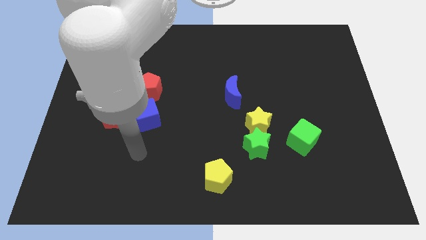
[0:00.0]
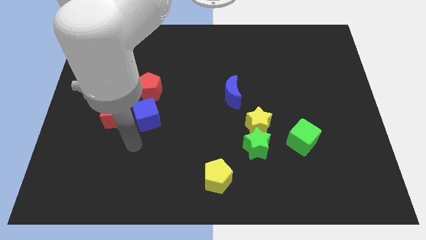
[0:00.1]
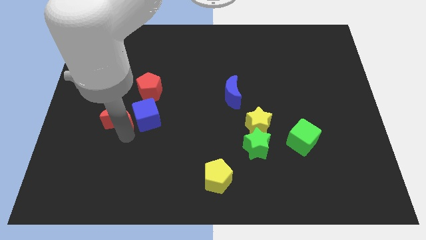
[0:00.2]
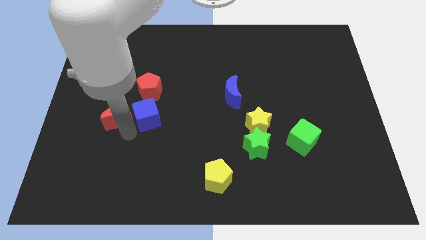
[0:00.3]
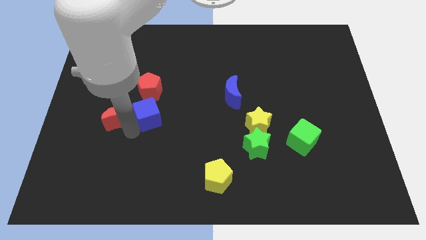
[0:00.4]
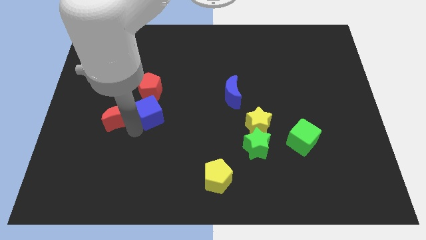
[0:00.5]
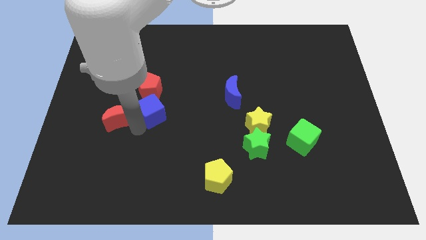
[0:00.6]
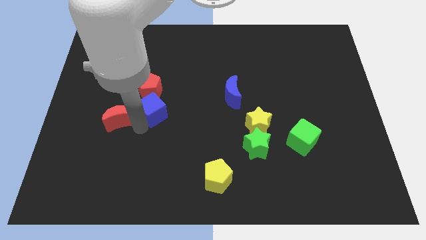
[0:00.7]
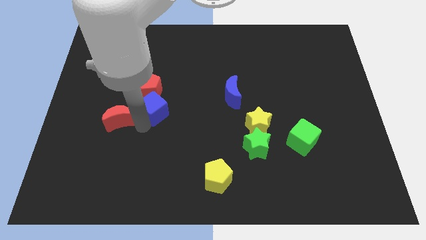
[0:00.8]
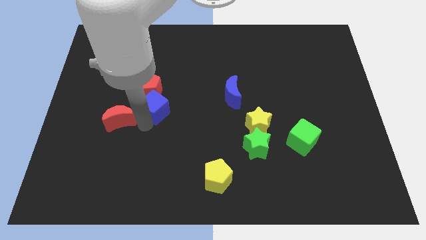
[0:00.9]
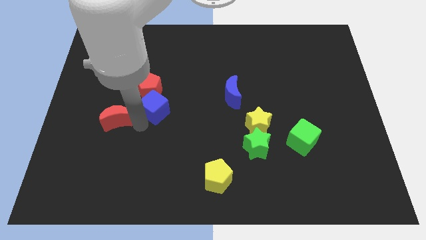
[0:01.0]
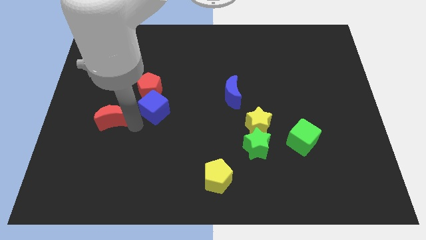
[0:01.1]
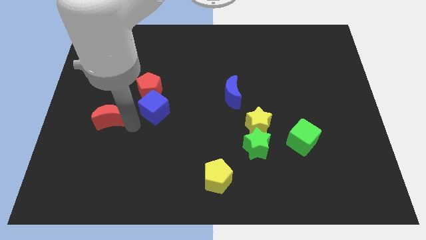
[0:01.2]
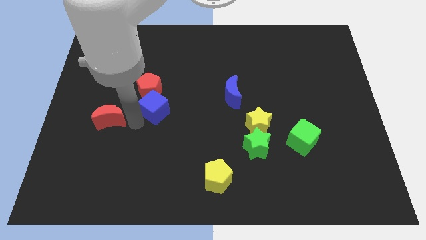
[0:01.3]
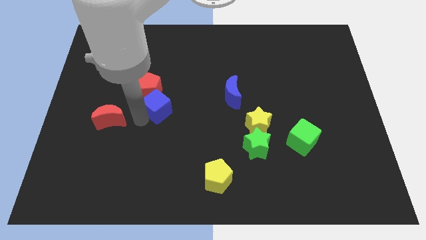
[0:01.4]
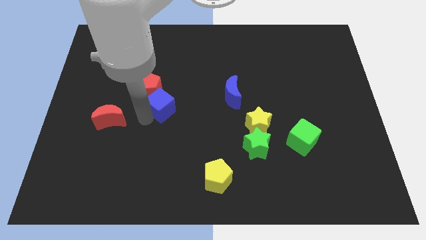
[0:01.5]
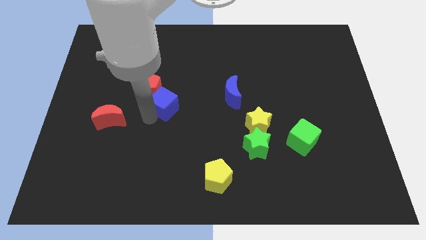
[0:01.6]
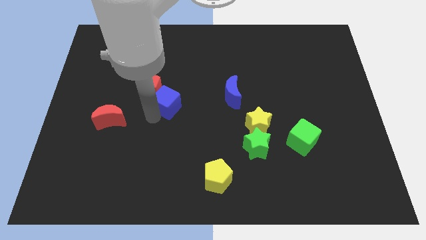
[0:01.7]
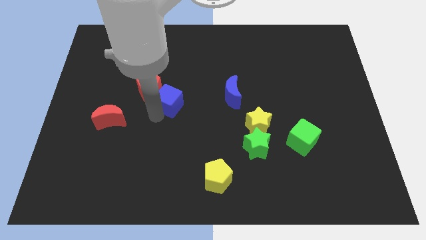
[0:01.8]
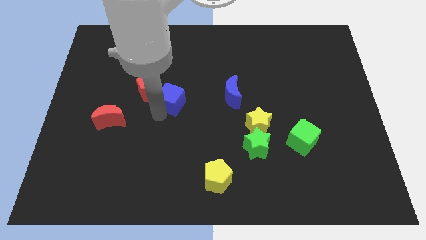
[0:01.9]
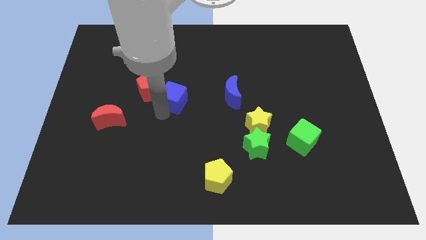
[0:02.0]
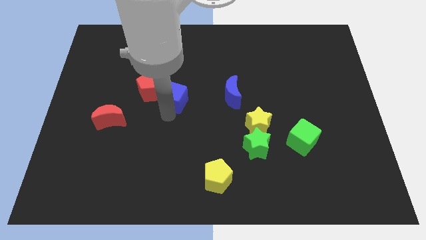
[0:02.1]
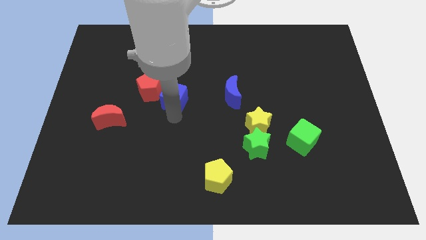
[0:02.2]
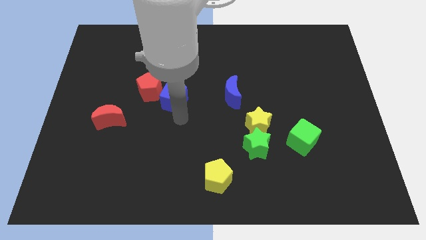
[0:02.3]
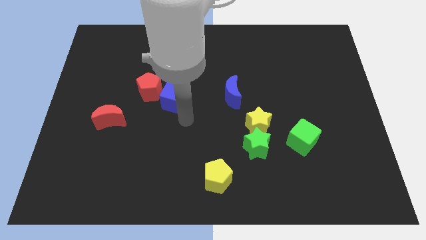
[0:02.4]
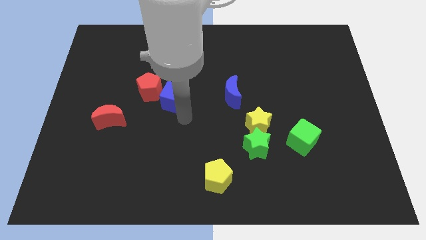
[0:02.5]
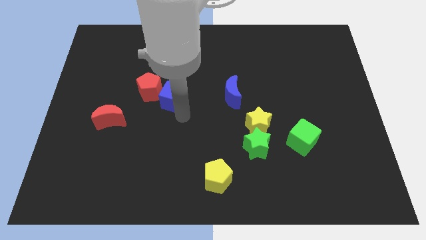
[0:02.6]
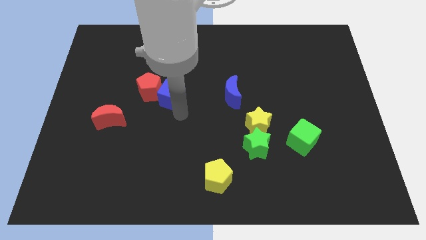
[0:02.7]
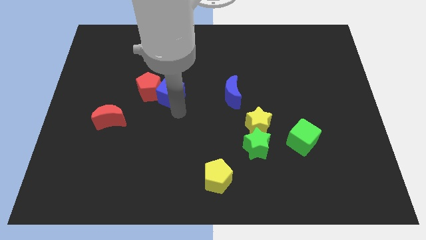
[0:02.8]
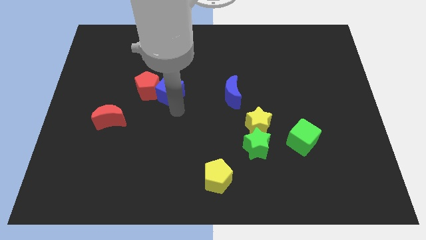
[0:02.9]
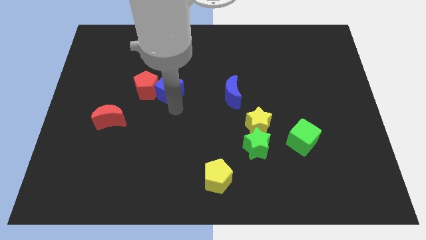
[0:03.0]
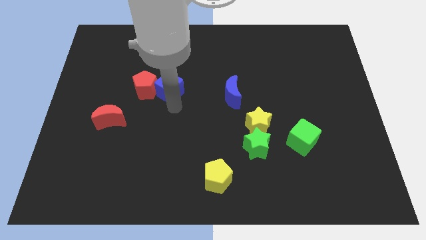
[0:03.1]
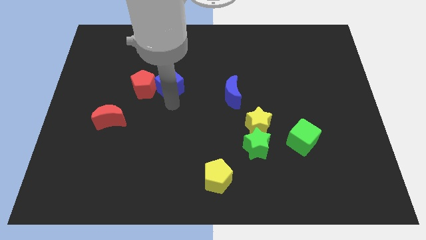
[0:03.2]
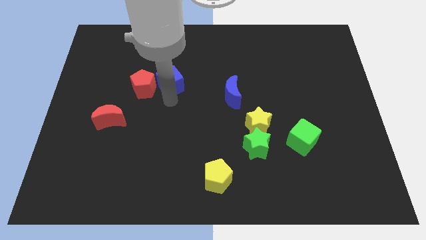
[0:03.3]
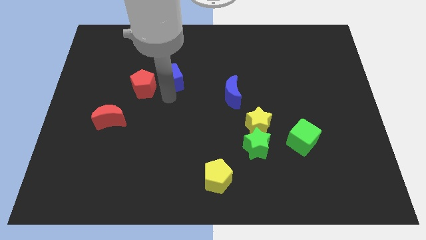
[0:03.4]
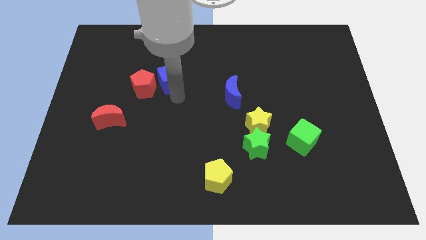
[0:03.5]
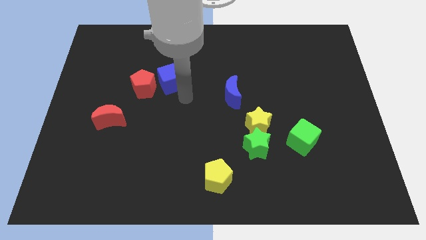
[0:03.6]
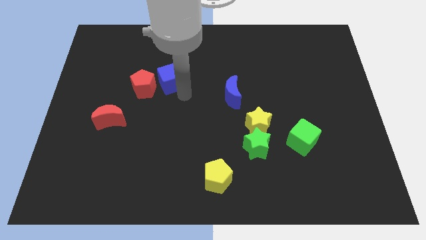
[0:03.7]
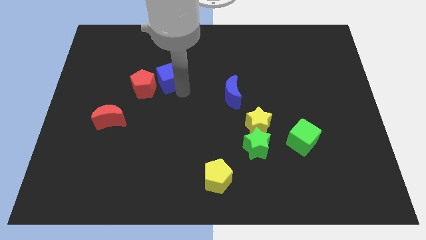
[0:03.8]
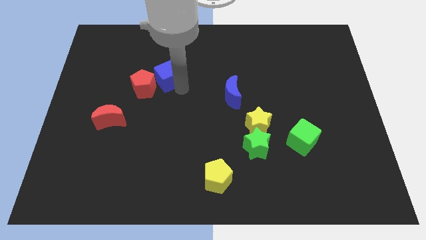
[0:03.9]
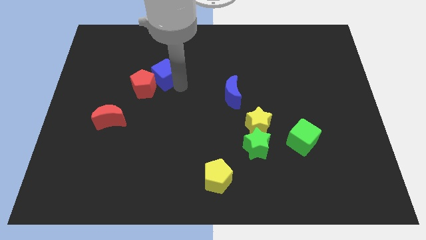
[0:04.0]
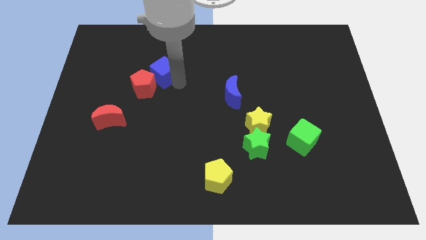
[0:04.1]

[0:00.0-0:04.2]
slide the blue cube to the top of the red pentagon

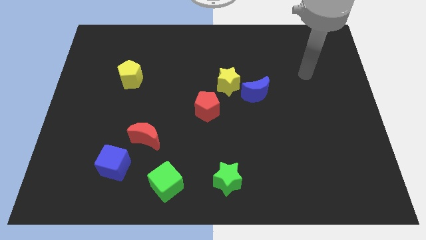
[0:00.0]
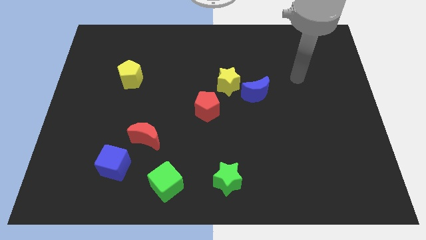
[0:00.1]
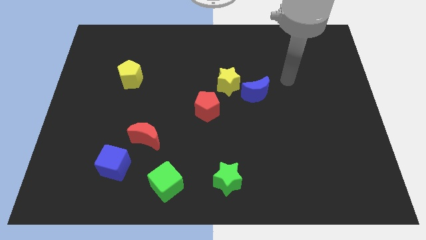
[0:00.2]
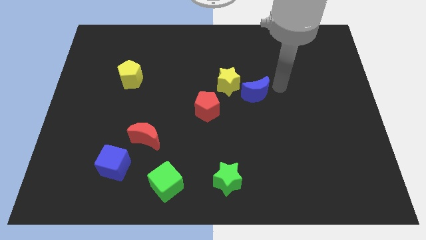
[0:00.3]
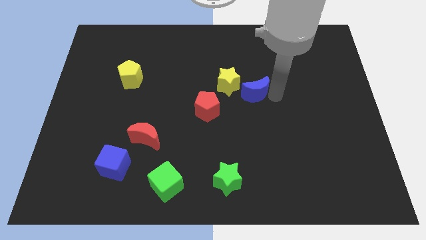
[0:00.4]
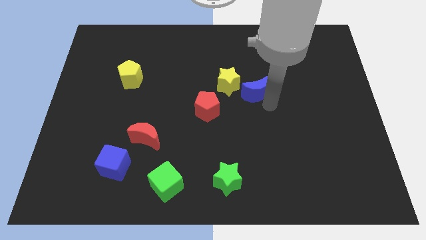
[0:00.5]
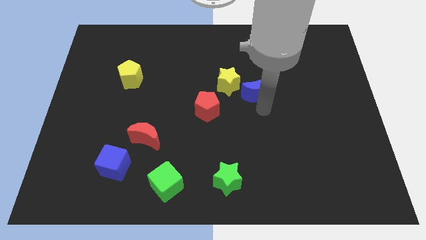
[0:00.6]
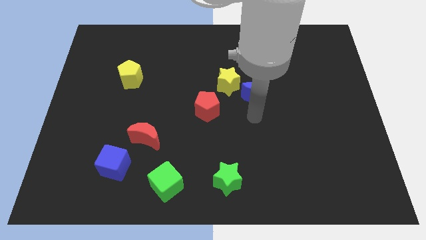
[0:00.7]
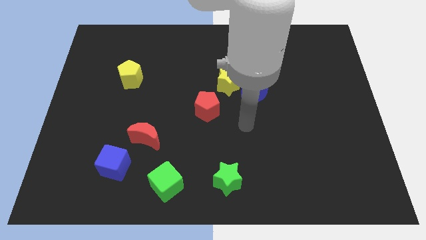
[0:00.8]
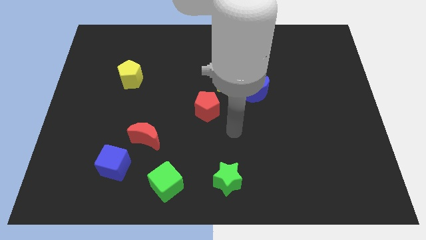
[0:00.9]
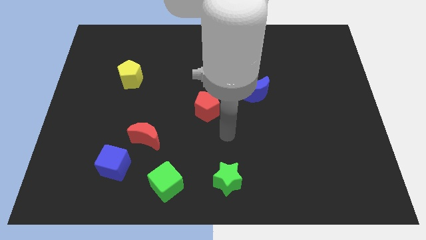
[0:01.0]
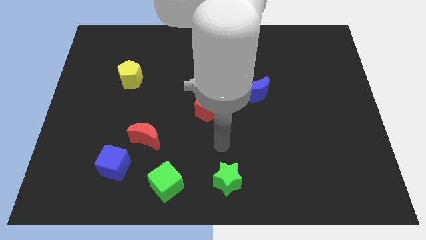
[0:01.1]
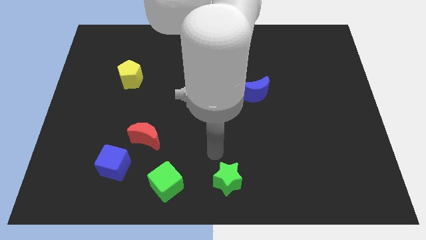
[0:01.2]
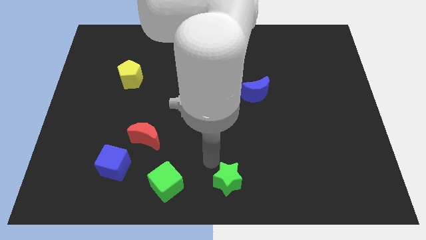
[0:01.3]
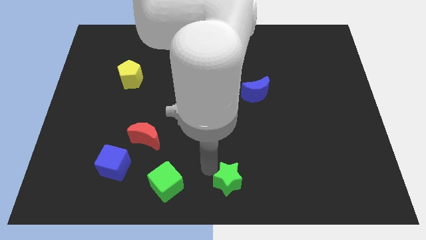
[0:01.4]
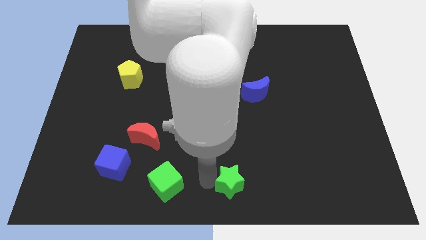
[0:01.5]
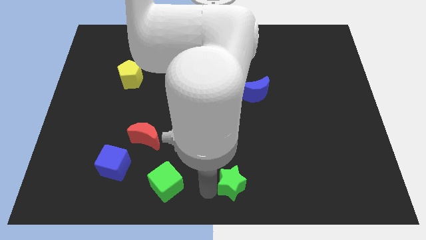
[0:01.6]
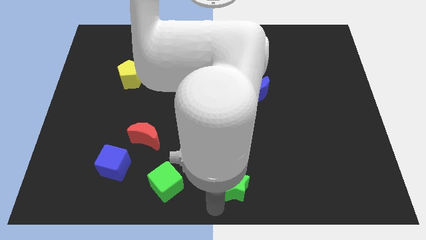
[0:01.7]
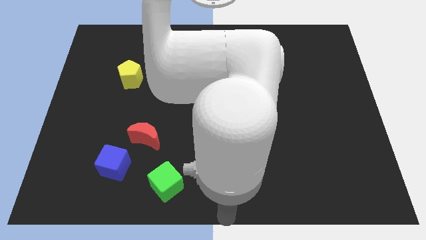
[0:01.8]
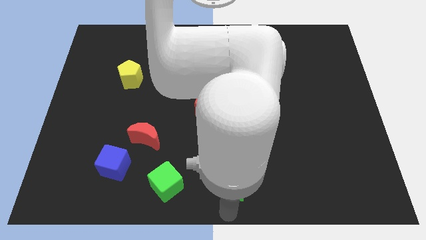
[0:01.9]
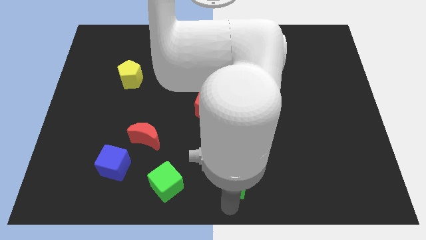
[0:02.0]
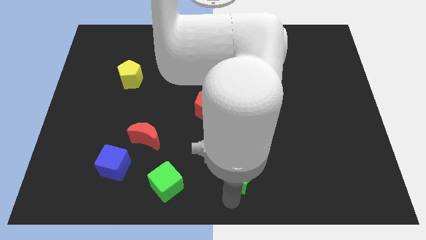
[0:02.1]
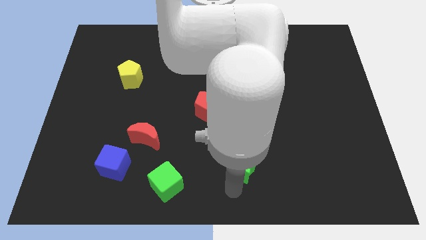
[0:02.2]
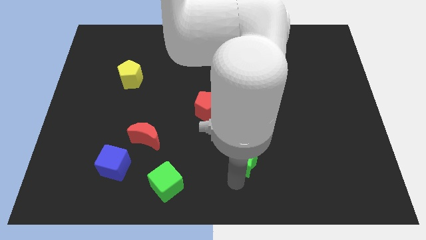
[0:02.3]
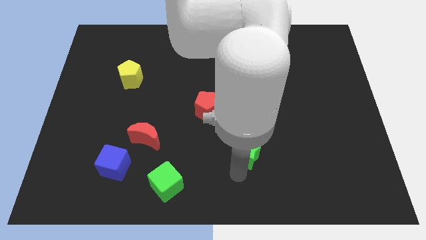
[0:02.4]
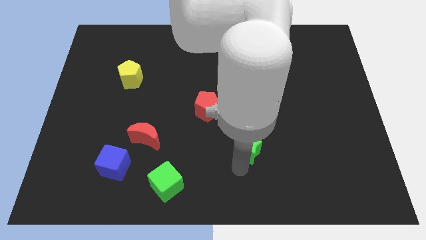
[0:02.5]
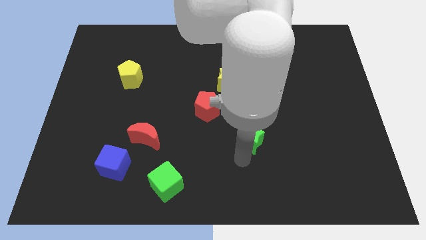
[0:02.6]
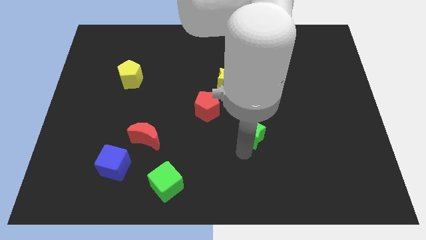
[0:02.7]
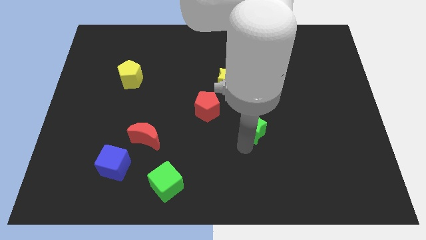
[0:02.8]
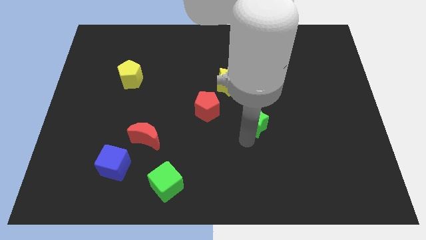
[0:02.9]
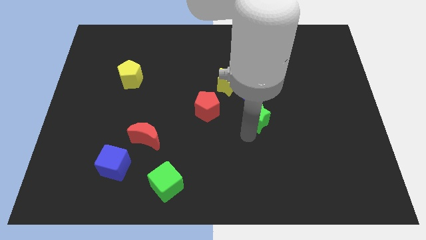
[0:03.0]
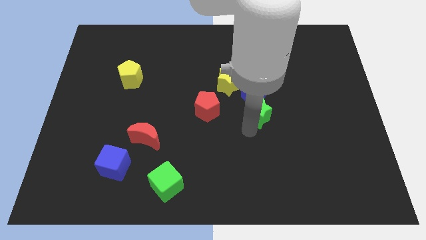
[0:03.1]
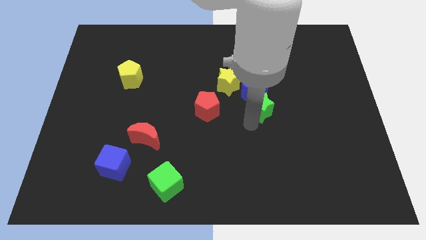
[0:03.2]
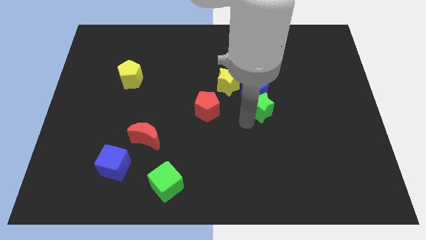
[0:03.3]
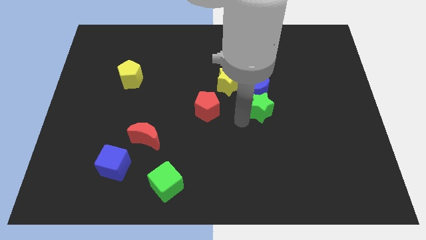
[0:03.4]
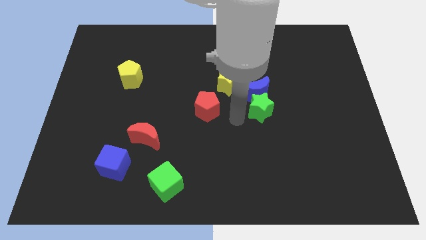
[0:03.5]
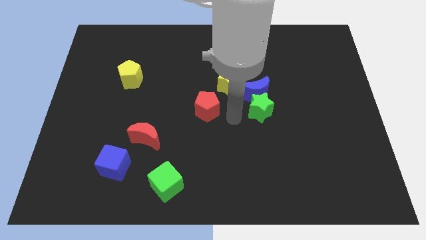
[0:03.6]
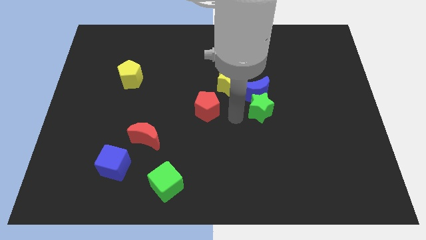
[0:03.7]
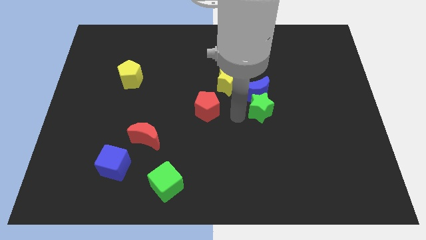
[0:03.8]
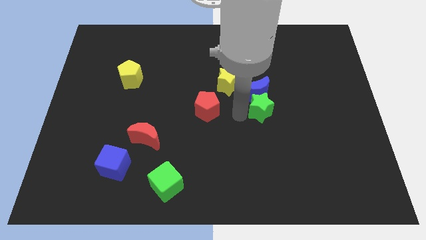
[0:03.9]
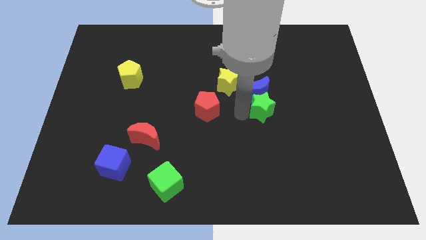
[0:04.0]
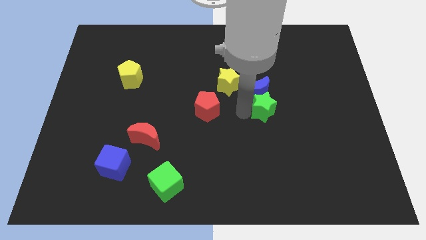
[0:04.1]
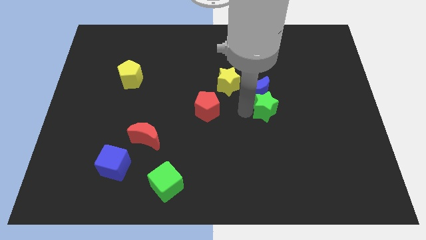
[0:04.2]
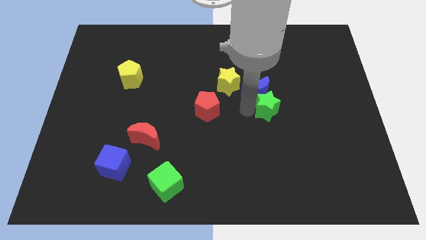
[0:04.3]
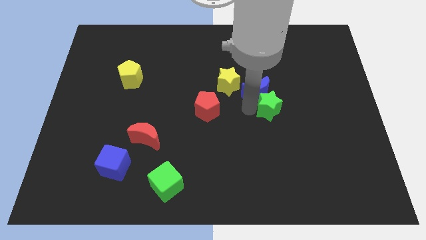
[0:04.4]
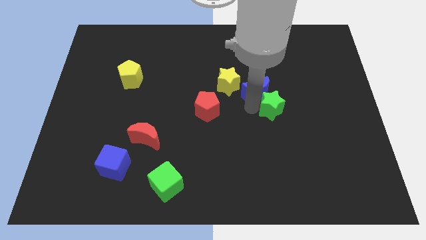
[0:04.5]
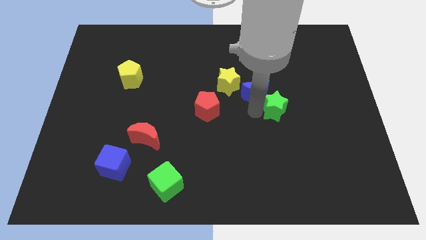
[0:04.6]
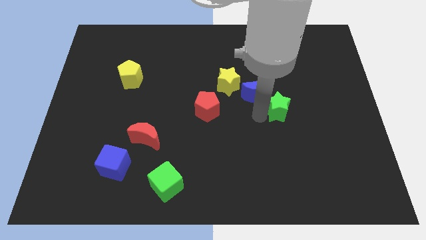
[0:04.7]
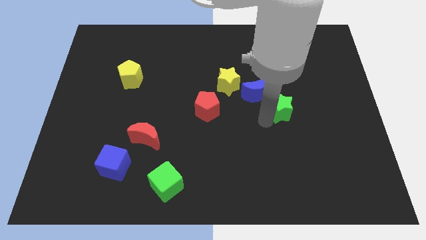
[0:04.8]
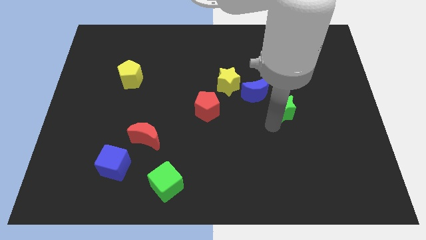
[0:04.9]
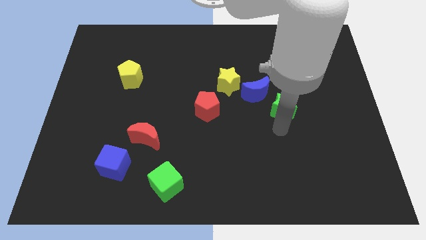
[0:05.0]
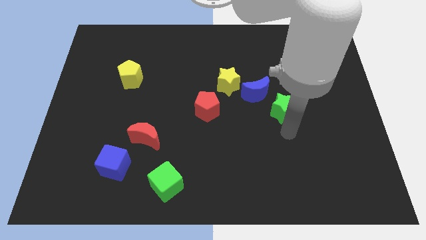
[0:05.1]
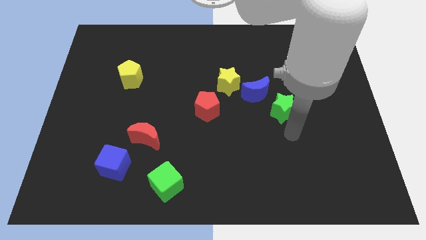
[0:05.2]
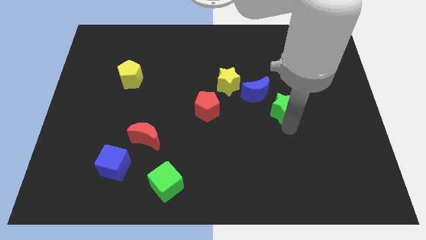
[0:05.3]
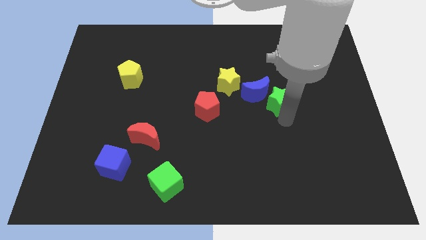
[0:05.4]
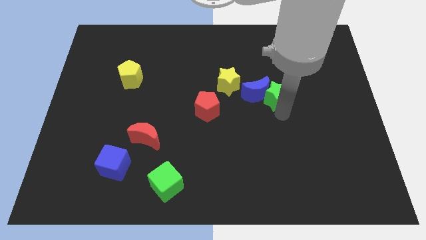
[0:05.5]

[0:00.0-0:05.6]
move the green star right of the yellow star
